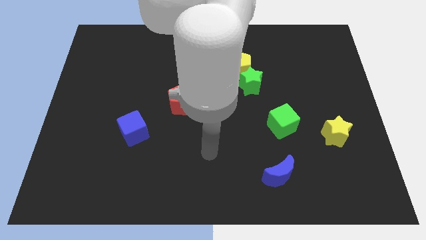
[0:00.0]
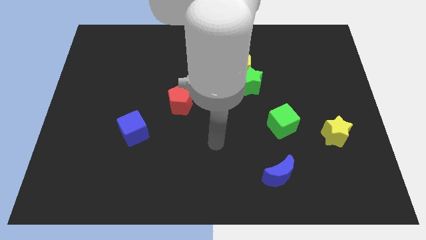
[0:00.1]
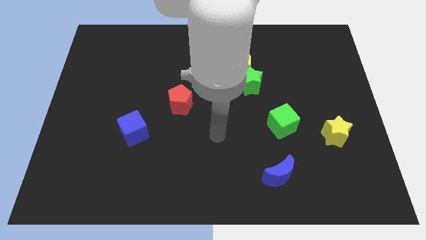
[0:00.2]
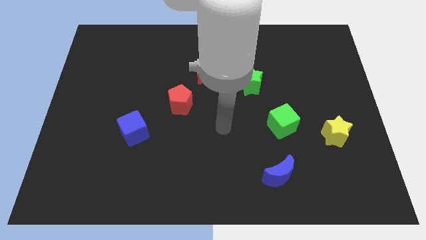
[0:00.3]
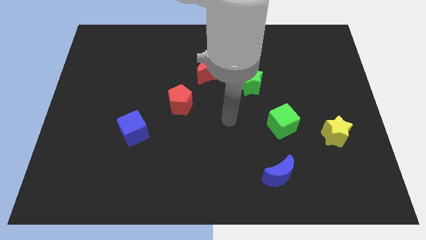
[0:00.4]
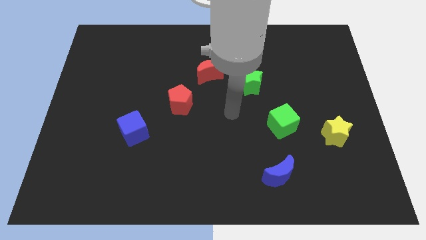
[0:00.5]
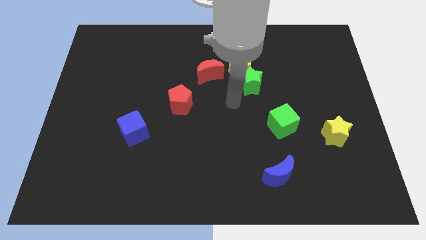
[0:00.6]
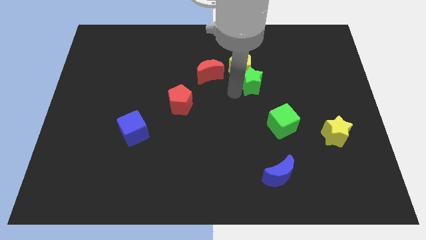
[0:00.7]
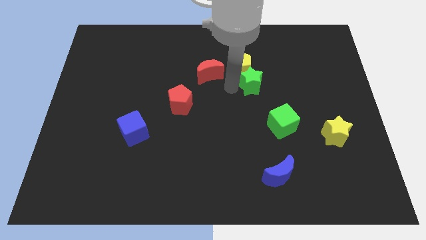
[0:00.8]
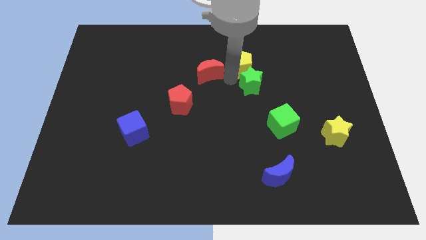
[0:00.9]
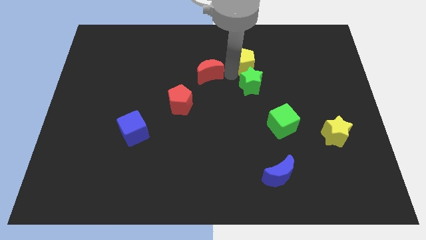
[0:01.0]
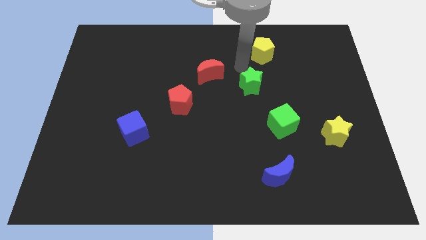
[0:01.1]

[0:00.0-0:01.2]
move the green star away from the yellow pentagon

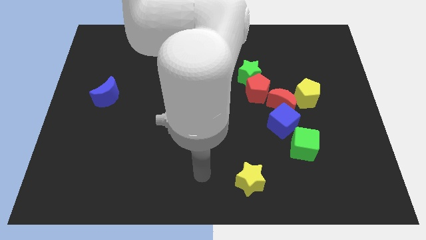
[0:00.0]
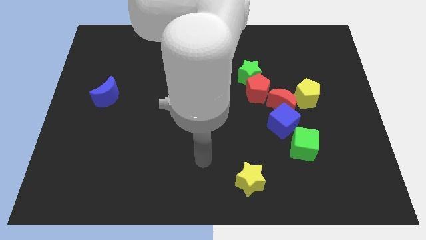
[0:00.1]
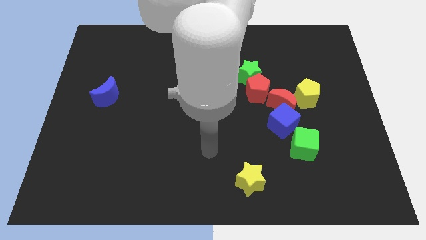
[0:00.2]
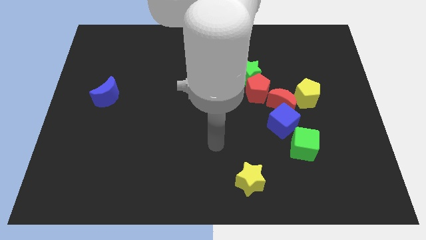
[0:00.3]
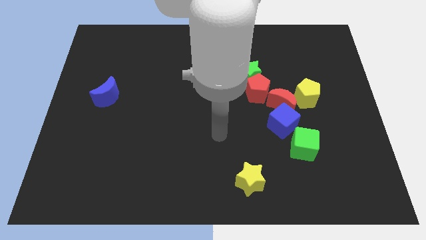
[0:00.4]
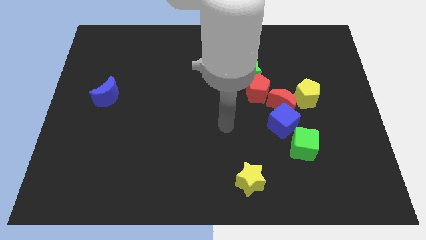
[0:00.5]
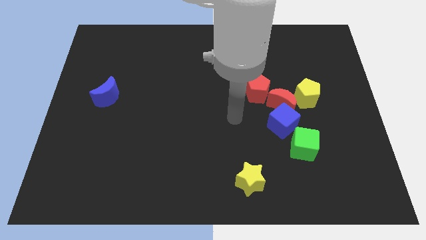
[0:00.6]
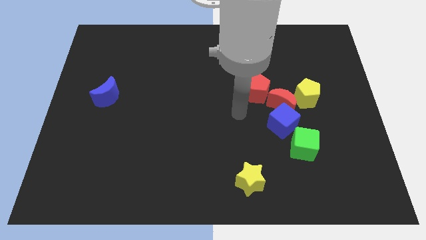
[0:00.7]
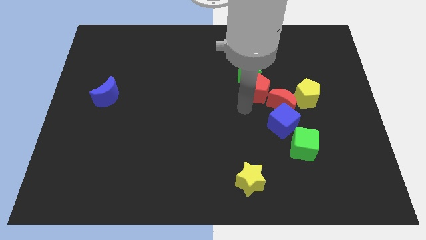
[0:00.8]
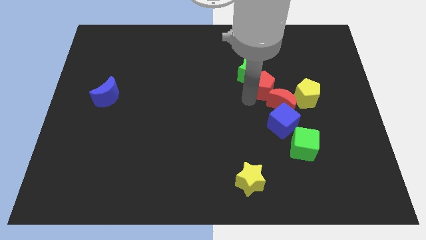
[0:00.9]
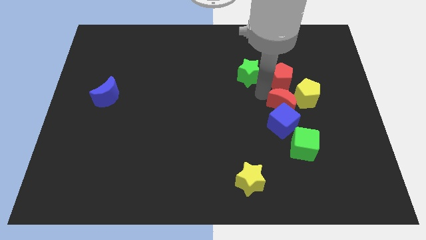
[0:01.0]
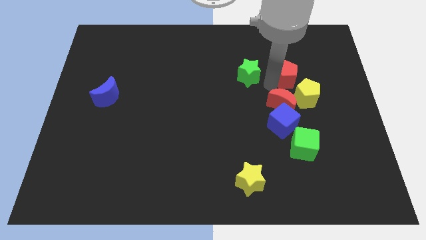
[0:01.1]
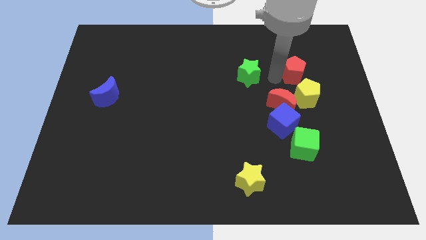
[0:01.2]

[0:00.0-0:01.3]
separate the green star from the red pentagon

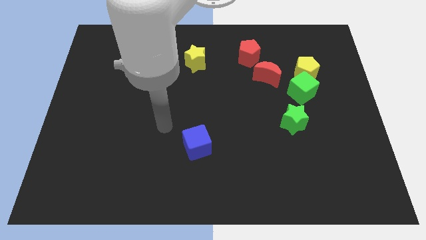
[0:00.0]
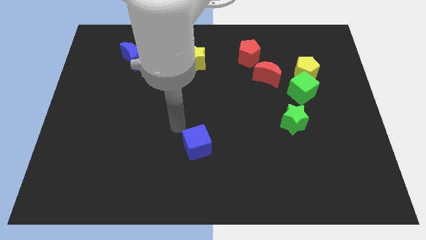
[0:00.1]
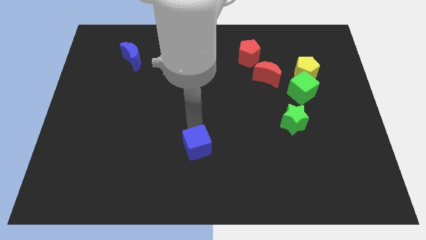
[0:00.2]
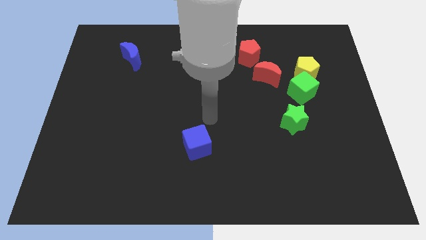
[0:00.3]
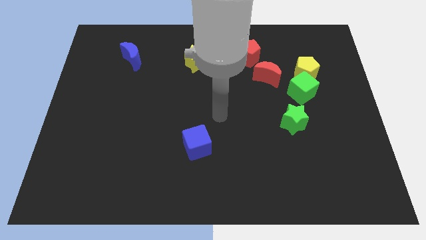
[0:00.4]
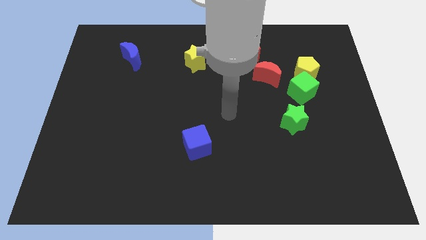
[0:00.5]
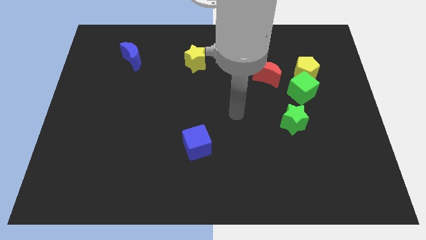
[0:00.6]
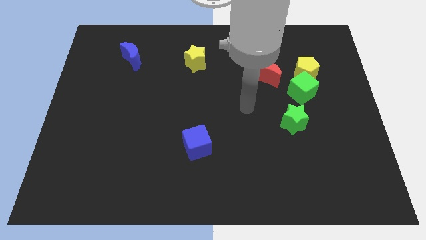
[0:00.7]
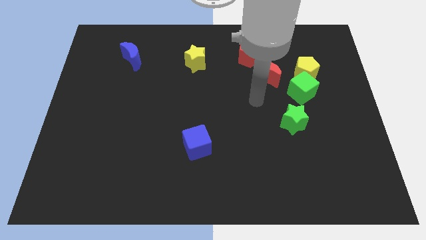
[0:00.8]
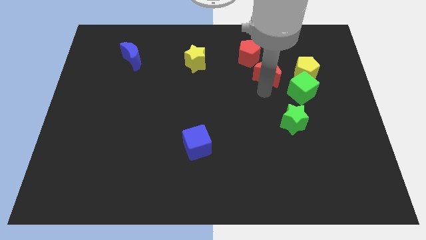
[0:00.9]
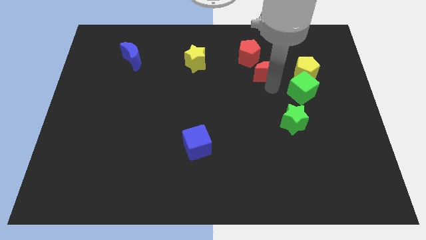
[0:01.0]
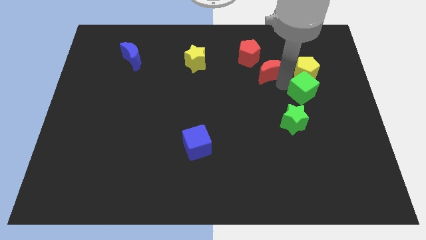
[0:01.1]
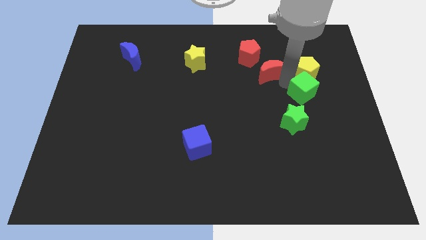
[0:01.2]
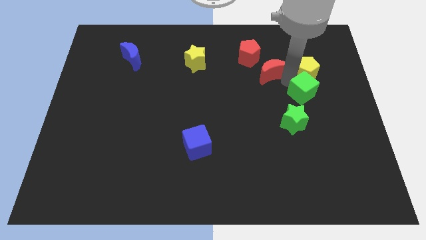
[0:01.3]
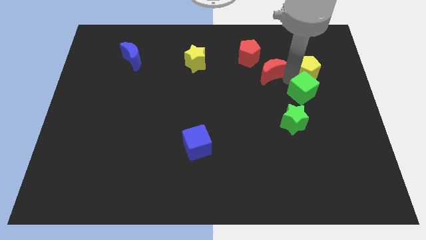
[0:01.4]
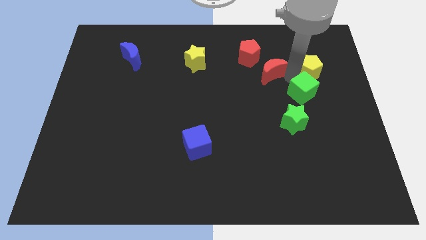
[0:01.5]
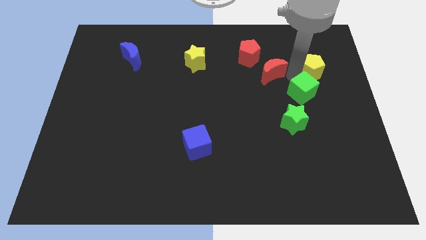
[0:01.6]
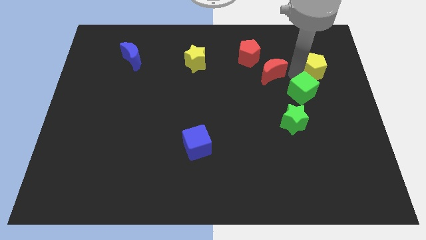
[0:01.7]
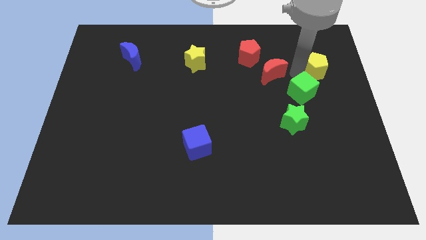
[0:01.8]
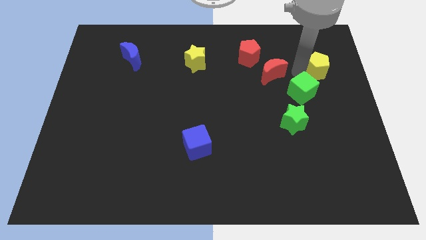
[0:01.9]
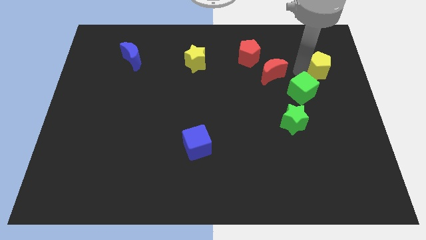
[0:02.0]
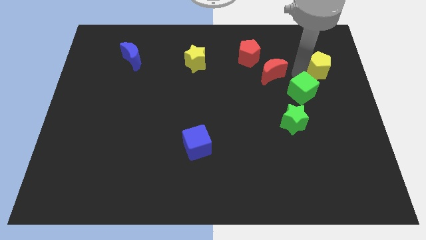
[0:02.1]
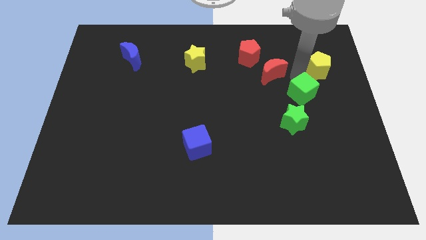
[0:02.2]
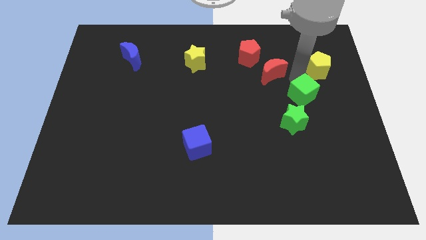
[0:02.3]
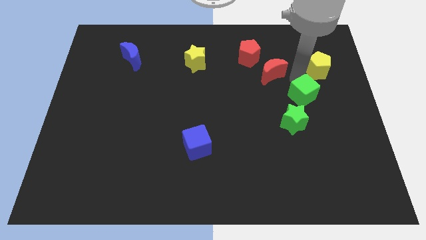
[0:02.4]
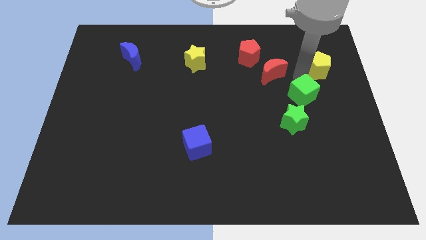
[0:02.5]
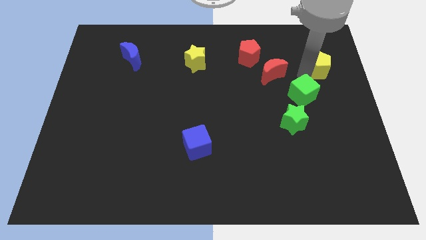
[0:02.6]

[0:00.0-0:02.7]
move the yellow pentagon away from the green cube and red moon

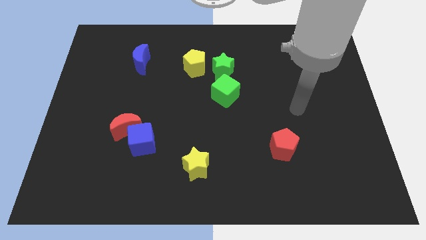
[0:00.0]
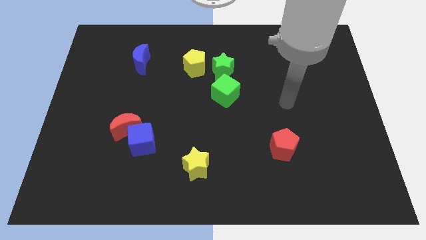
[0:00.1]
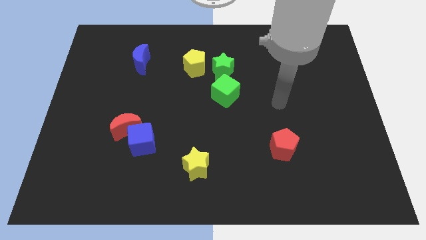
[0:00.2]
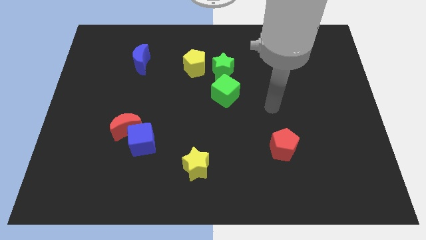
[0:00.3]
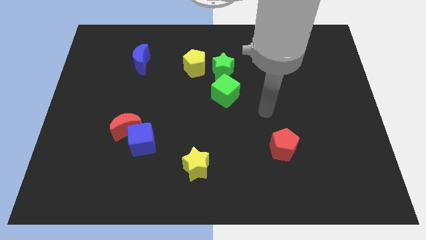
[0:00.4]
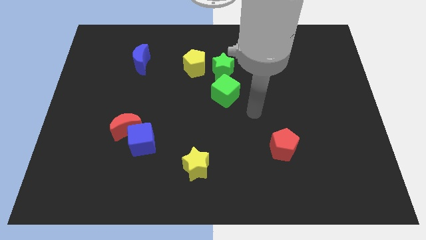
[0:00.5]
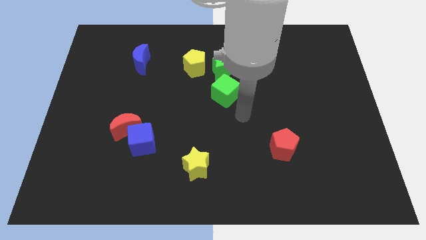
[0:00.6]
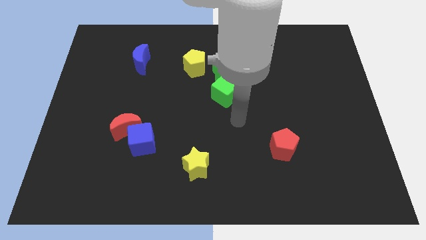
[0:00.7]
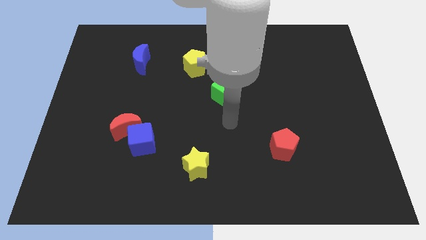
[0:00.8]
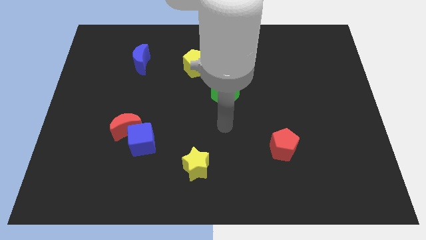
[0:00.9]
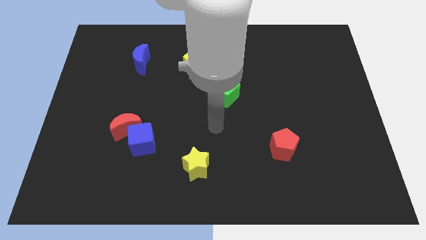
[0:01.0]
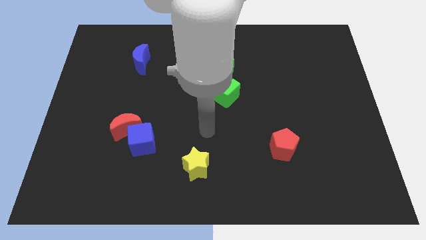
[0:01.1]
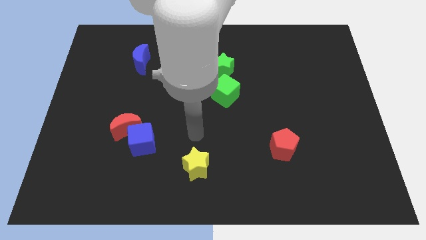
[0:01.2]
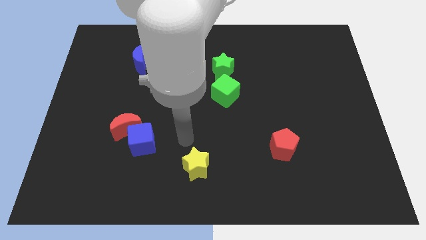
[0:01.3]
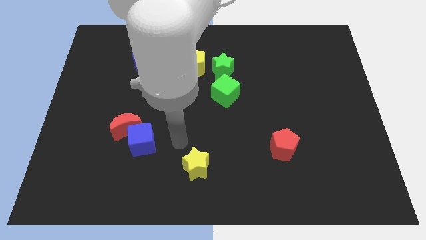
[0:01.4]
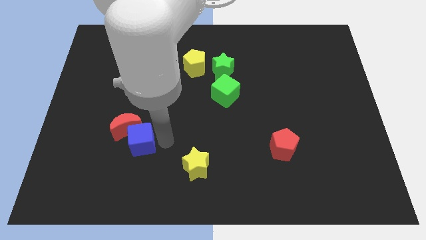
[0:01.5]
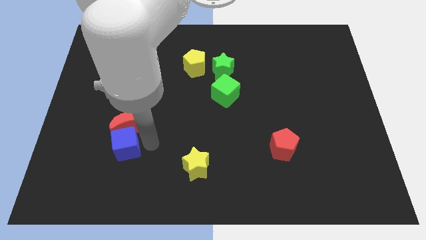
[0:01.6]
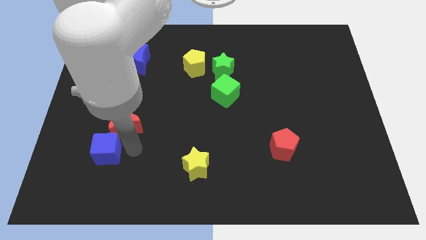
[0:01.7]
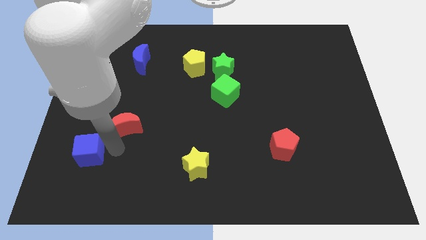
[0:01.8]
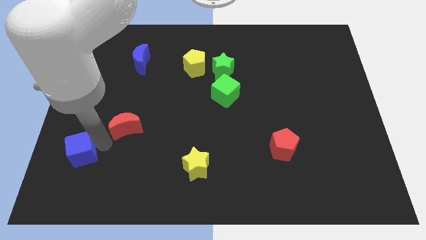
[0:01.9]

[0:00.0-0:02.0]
pull the red moon apart from the blue cube

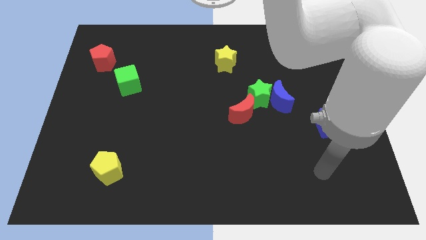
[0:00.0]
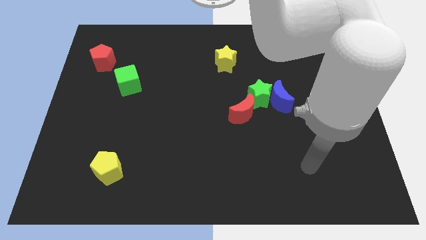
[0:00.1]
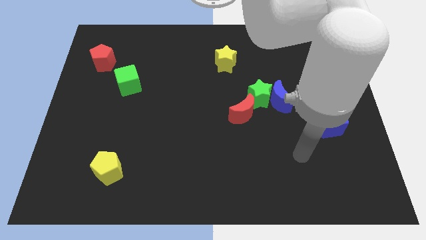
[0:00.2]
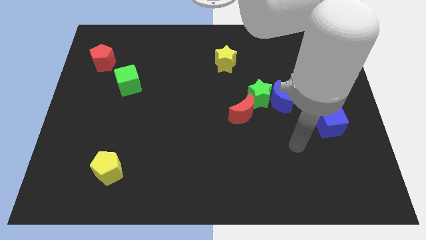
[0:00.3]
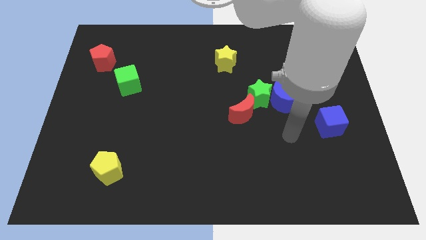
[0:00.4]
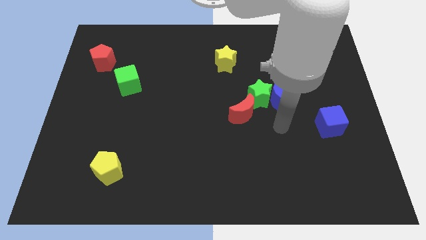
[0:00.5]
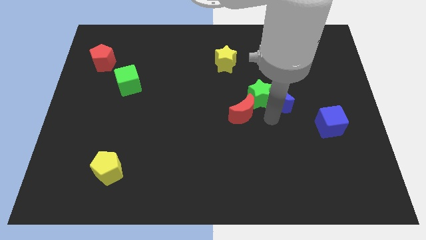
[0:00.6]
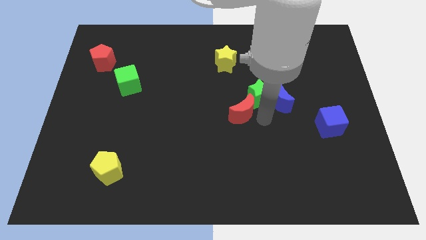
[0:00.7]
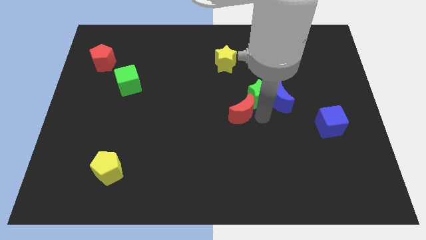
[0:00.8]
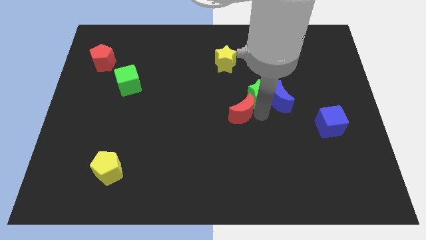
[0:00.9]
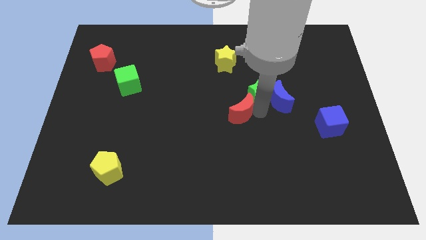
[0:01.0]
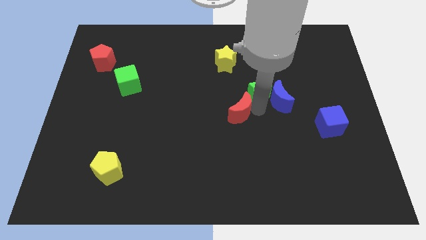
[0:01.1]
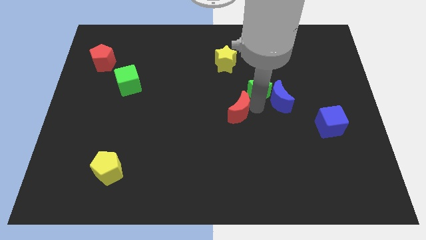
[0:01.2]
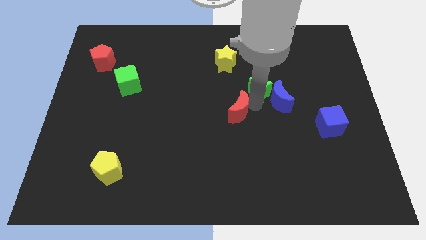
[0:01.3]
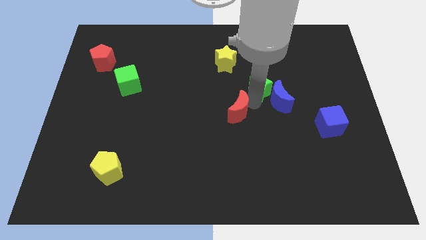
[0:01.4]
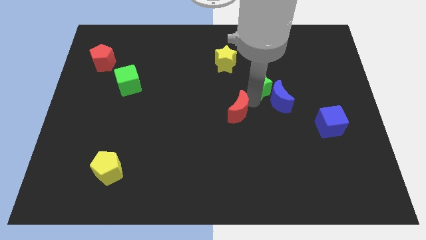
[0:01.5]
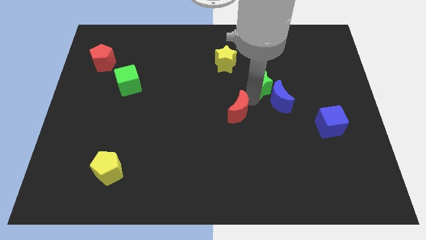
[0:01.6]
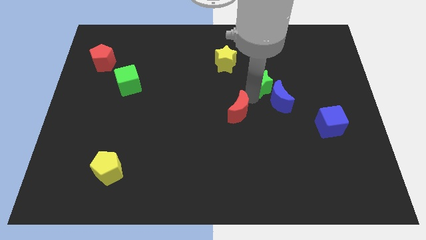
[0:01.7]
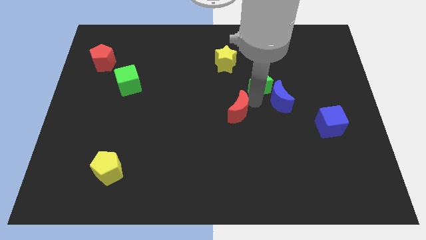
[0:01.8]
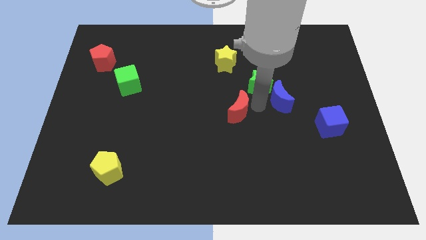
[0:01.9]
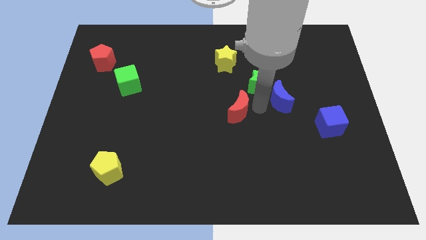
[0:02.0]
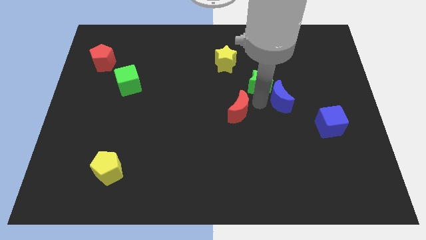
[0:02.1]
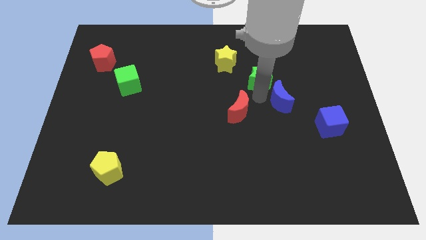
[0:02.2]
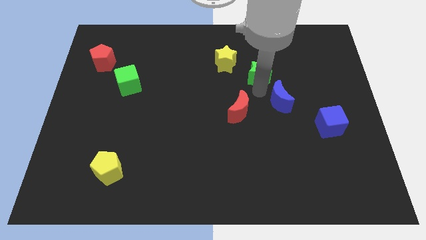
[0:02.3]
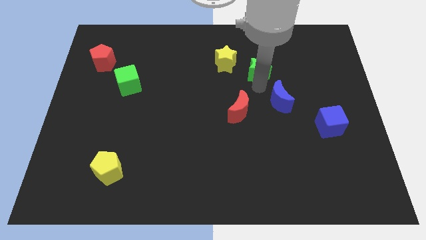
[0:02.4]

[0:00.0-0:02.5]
separate the green star from the blue moon and red moon
